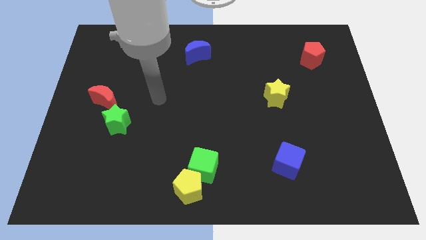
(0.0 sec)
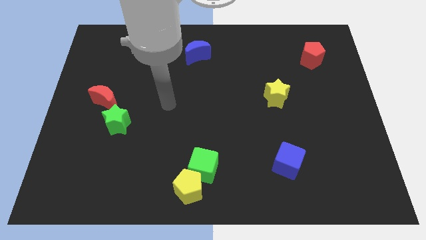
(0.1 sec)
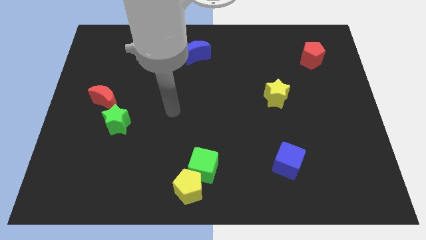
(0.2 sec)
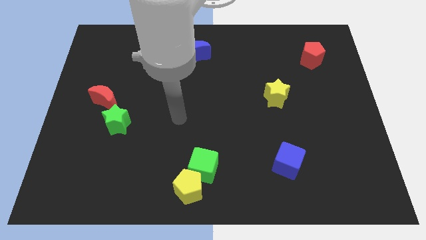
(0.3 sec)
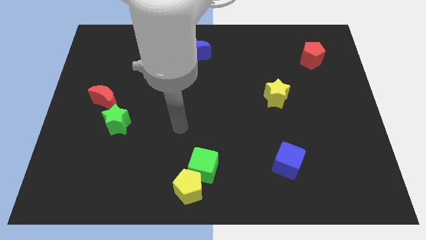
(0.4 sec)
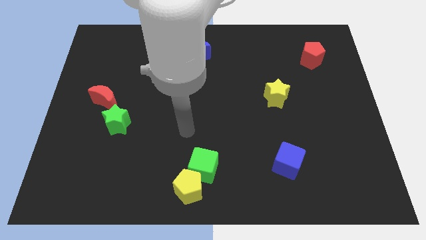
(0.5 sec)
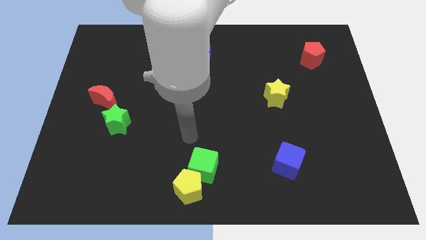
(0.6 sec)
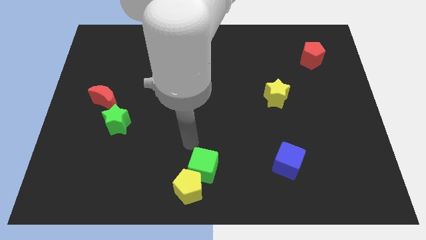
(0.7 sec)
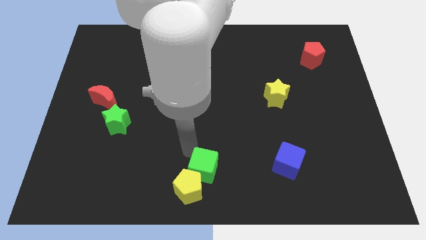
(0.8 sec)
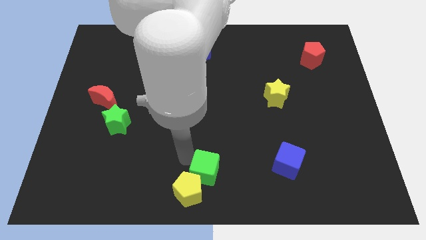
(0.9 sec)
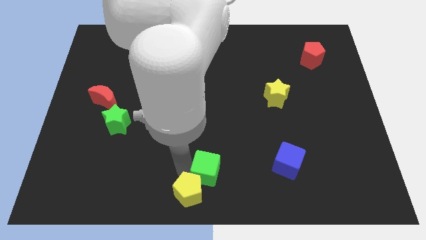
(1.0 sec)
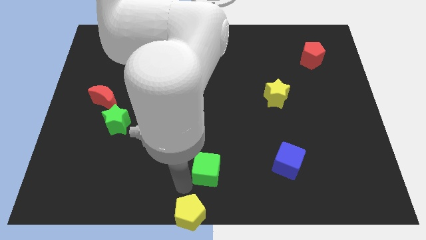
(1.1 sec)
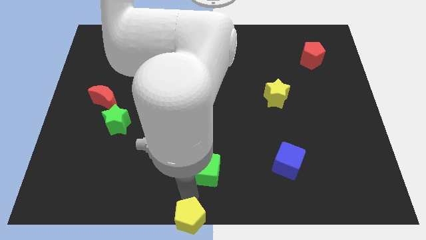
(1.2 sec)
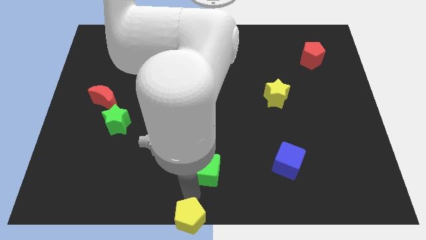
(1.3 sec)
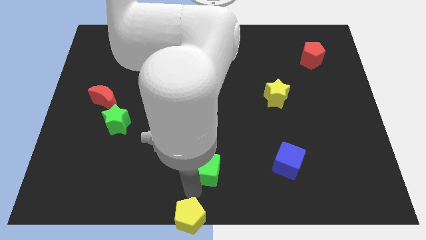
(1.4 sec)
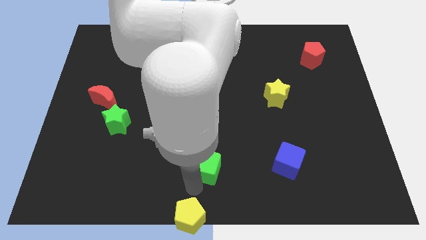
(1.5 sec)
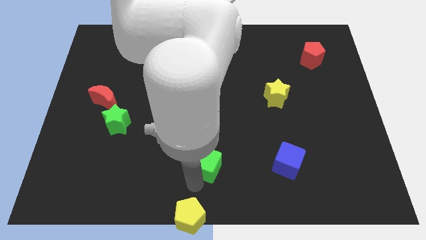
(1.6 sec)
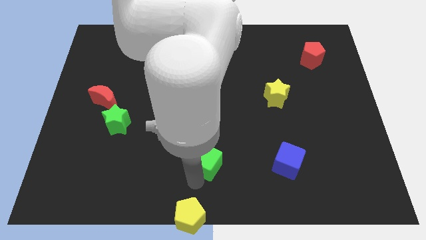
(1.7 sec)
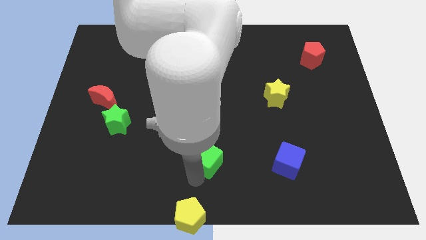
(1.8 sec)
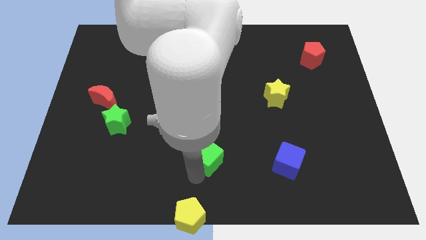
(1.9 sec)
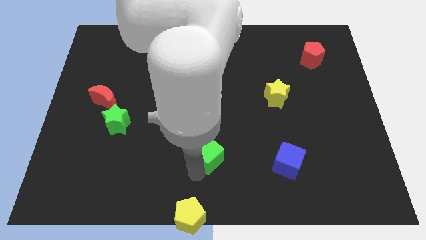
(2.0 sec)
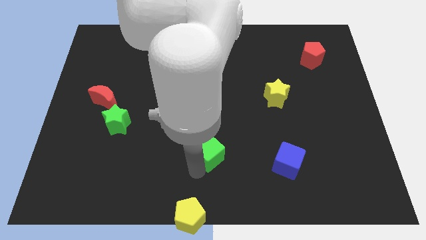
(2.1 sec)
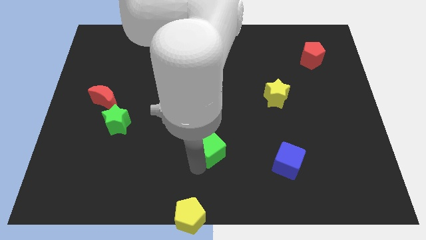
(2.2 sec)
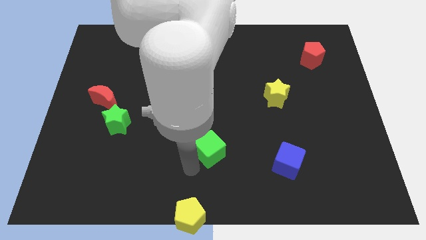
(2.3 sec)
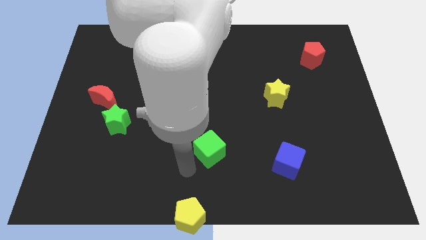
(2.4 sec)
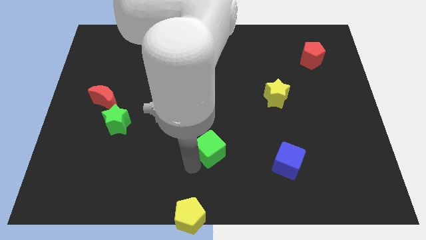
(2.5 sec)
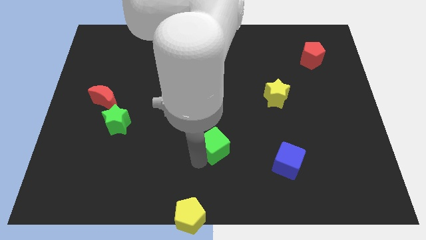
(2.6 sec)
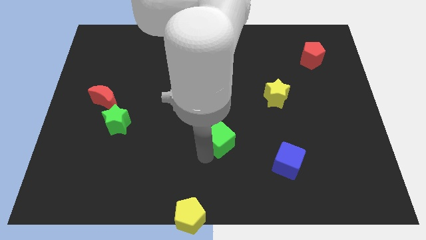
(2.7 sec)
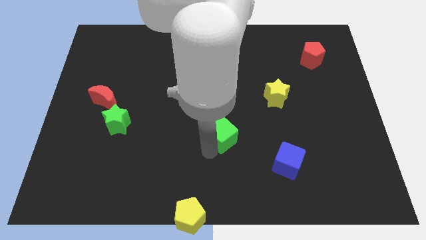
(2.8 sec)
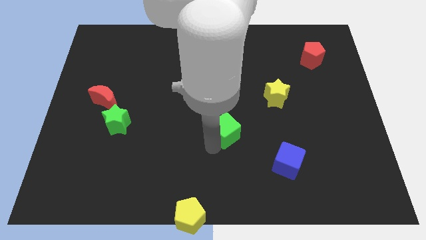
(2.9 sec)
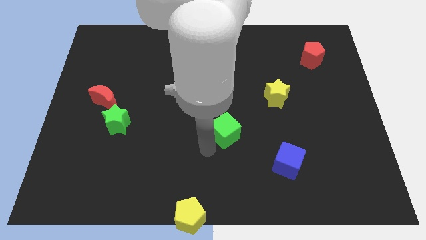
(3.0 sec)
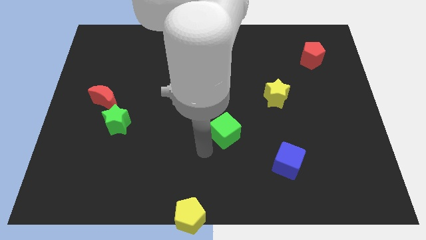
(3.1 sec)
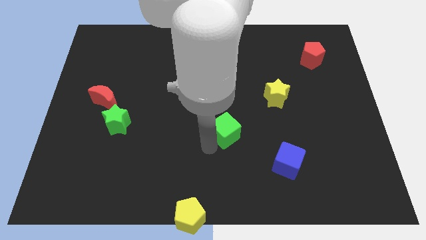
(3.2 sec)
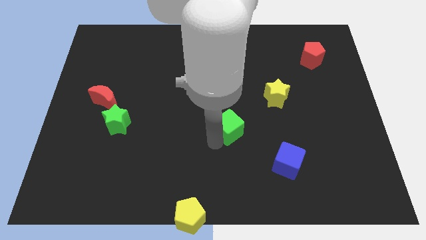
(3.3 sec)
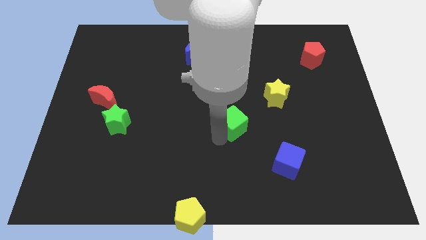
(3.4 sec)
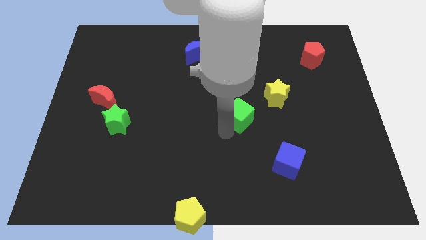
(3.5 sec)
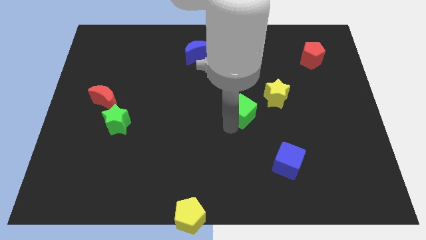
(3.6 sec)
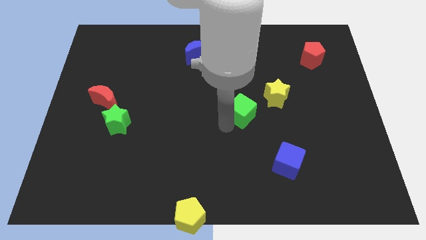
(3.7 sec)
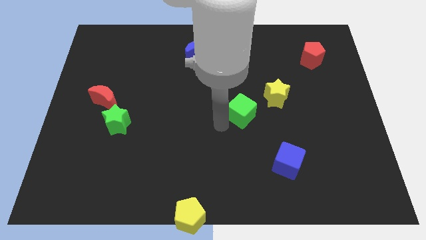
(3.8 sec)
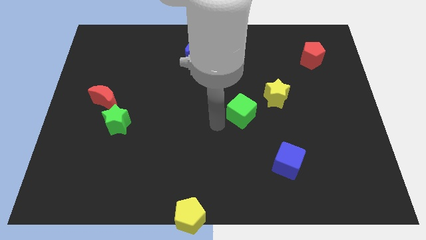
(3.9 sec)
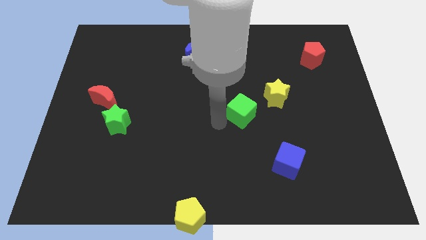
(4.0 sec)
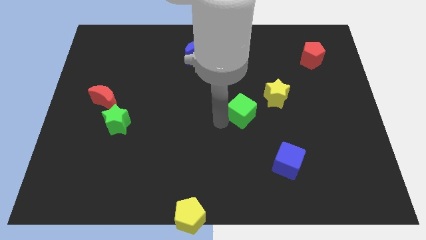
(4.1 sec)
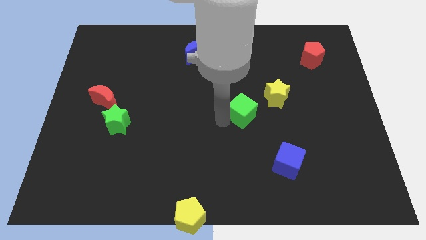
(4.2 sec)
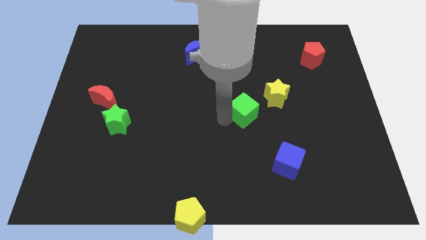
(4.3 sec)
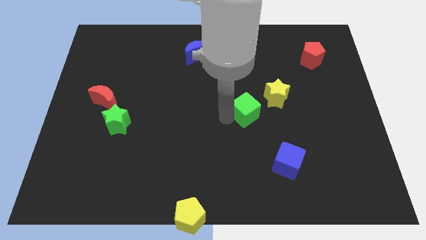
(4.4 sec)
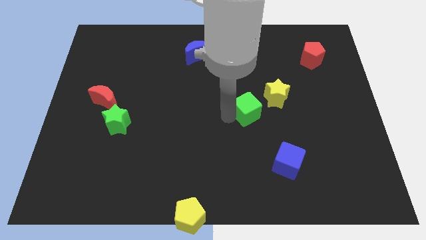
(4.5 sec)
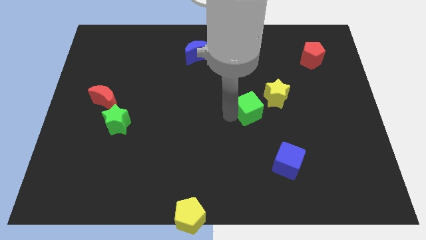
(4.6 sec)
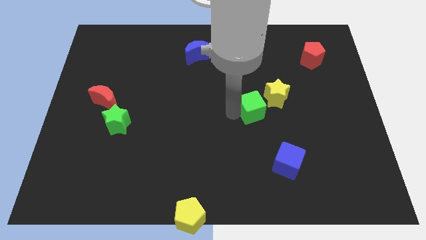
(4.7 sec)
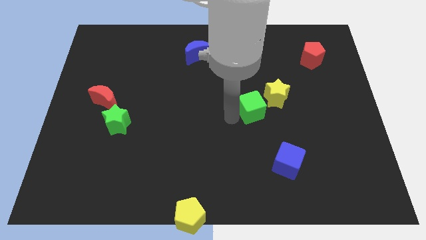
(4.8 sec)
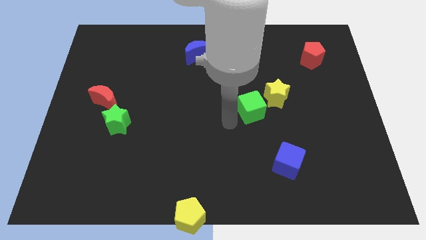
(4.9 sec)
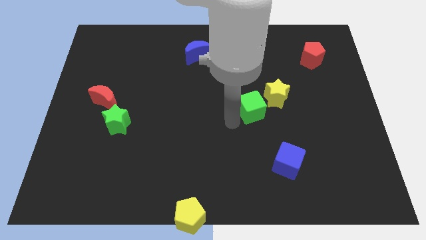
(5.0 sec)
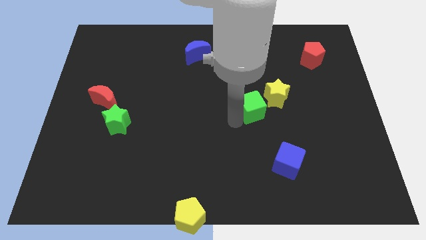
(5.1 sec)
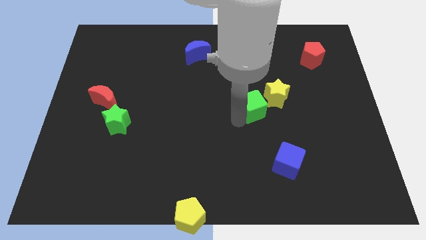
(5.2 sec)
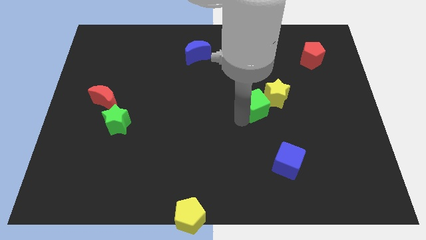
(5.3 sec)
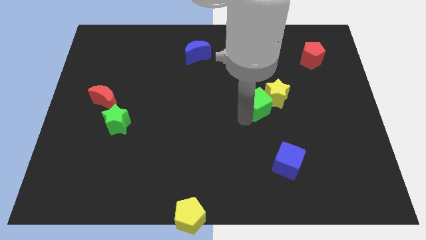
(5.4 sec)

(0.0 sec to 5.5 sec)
move the green cube next to the yellow star

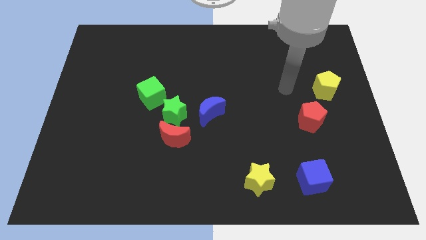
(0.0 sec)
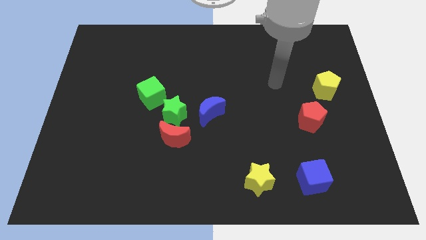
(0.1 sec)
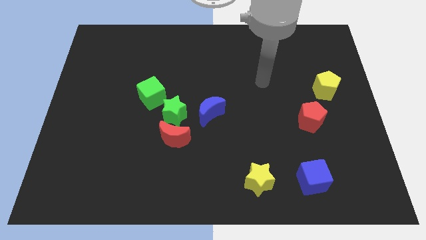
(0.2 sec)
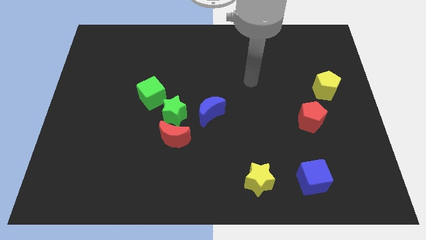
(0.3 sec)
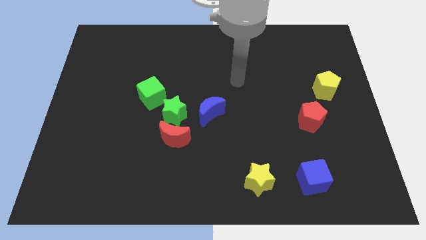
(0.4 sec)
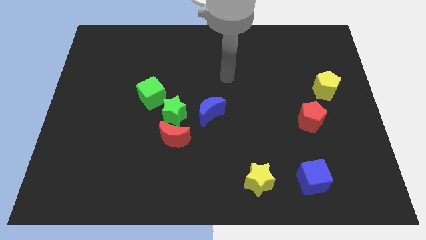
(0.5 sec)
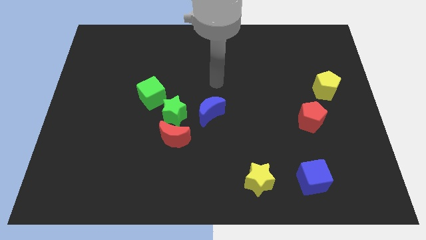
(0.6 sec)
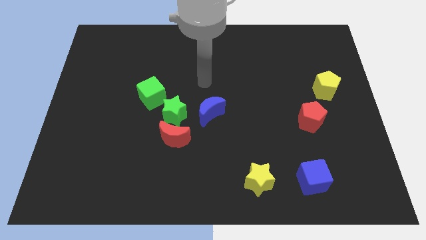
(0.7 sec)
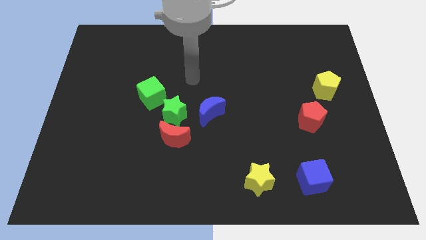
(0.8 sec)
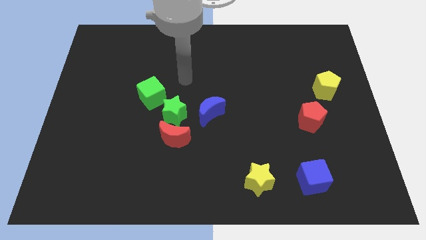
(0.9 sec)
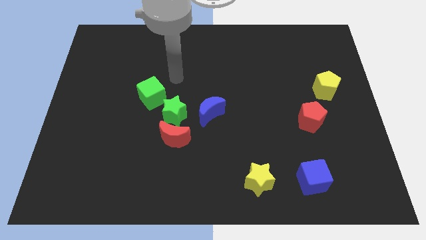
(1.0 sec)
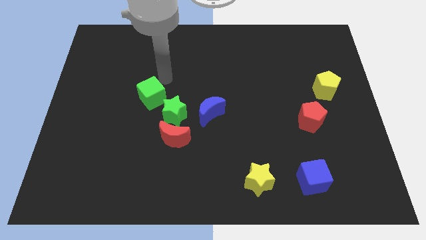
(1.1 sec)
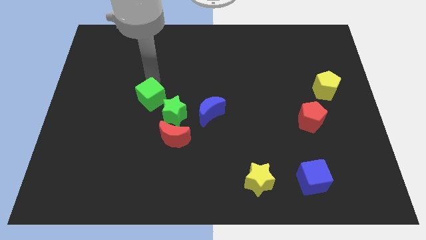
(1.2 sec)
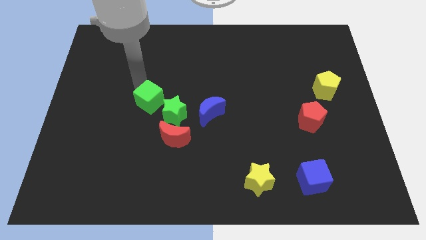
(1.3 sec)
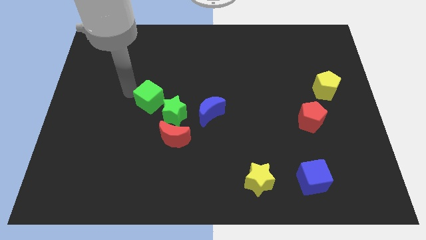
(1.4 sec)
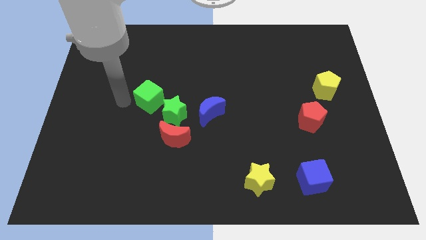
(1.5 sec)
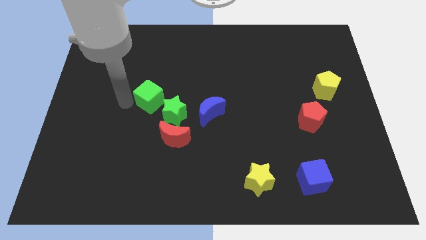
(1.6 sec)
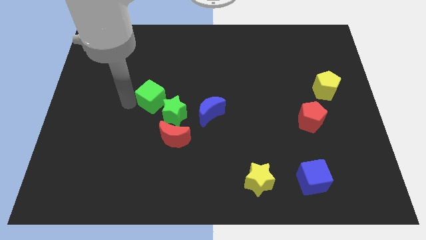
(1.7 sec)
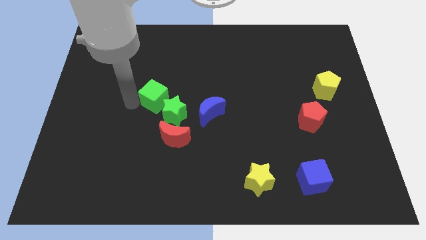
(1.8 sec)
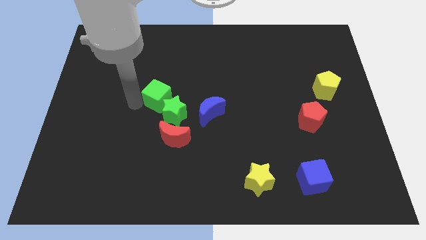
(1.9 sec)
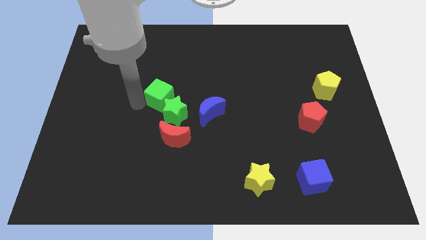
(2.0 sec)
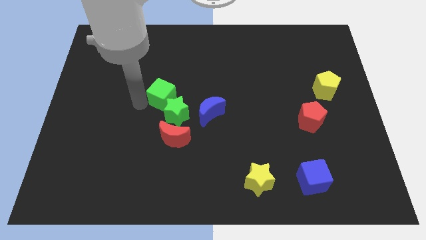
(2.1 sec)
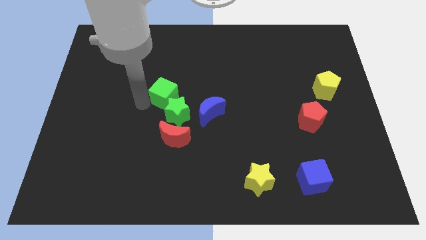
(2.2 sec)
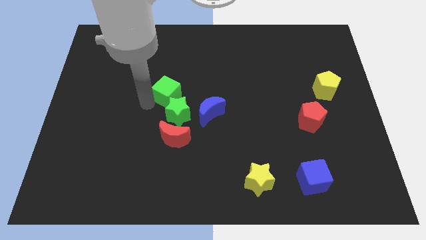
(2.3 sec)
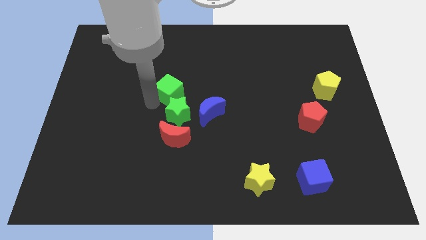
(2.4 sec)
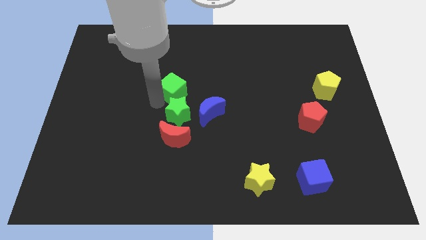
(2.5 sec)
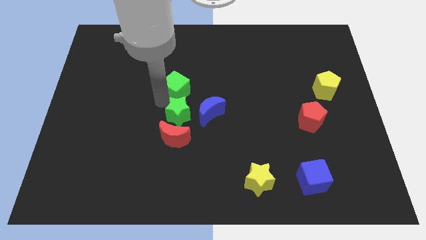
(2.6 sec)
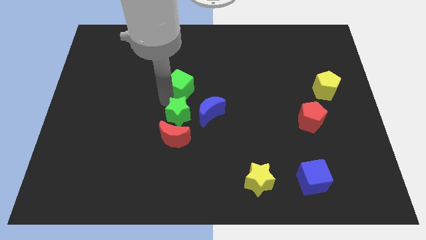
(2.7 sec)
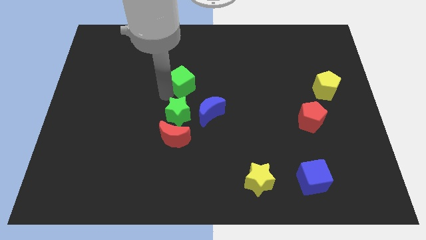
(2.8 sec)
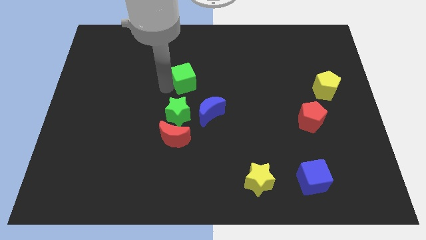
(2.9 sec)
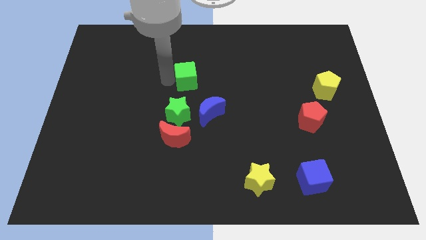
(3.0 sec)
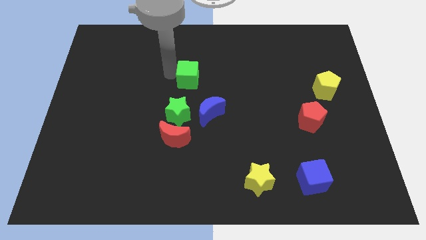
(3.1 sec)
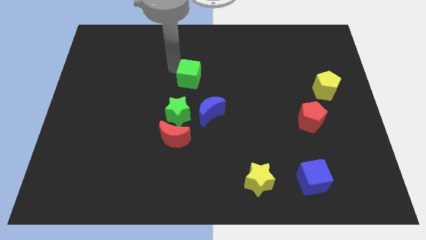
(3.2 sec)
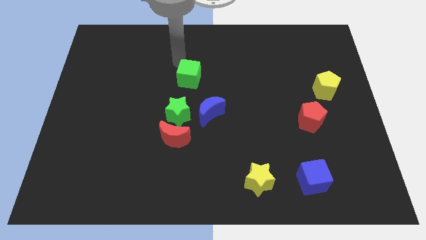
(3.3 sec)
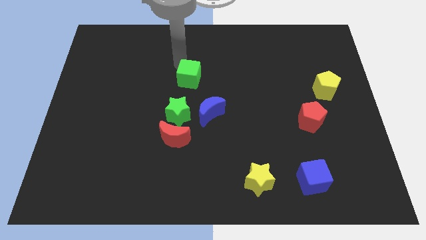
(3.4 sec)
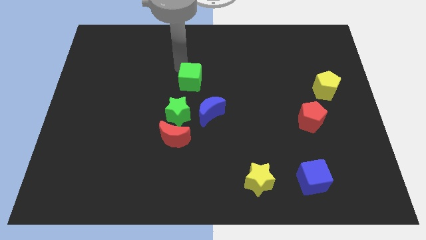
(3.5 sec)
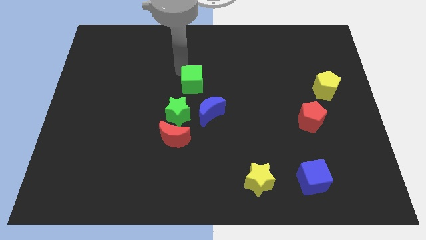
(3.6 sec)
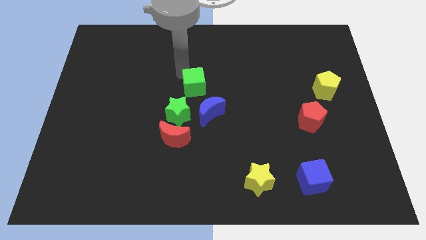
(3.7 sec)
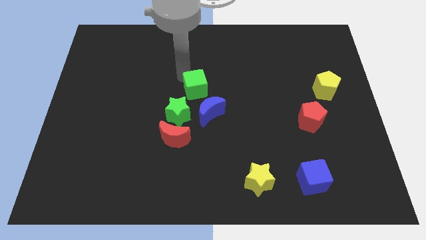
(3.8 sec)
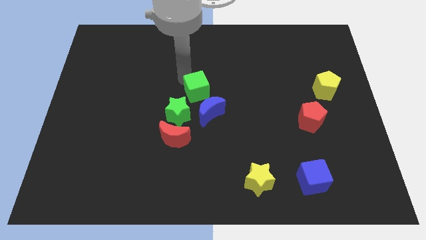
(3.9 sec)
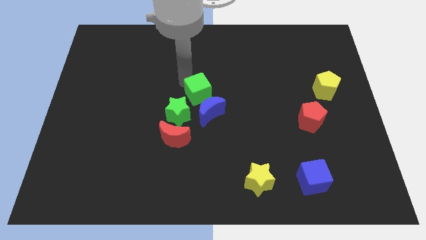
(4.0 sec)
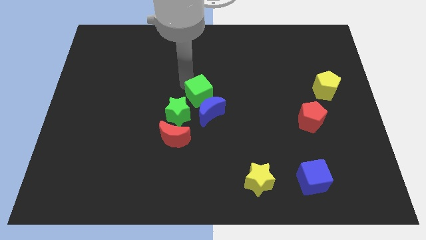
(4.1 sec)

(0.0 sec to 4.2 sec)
put the green cube to the blue moon
